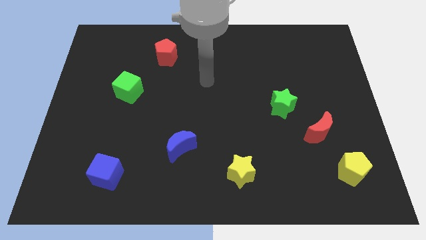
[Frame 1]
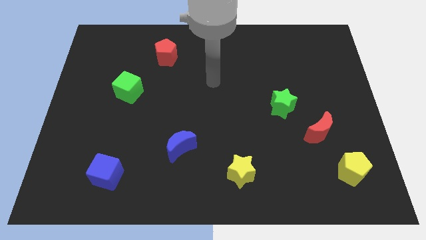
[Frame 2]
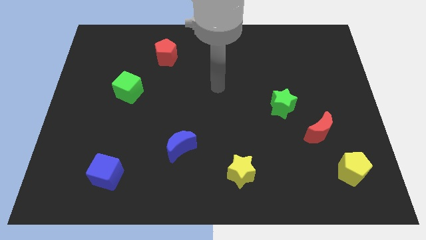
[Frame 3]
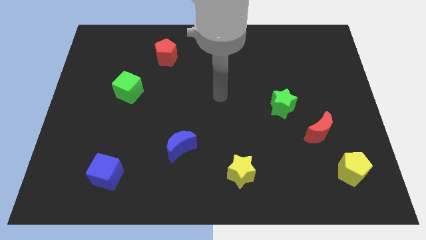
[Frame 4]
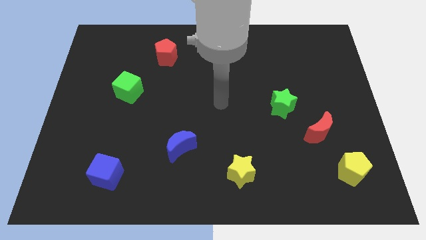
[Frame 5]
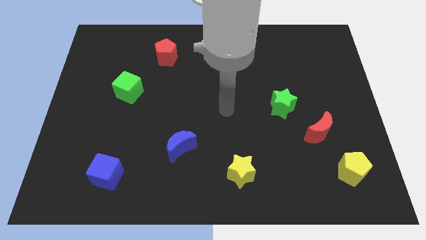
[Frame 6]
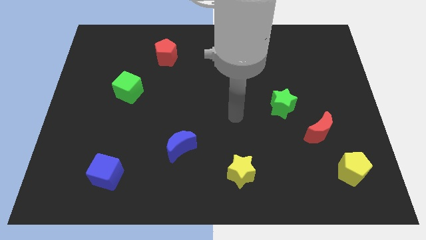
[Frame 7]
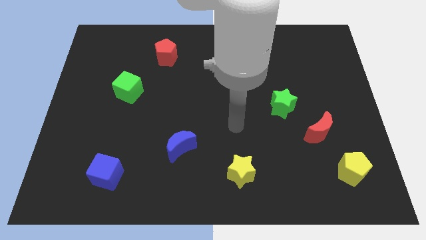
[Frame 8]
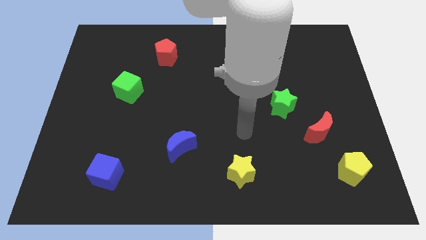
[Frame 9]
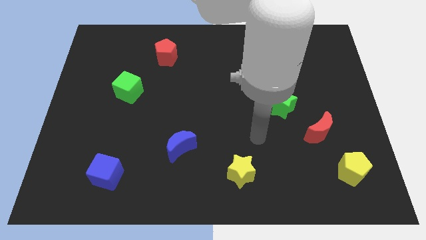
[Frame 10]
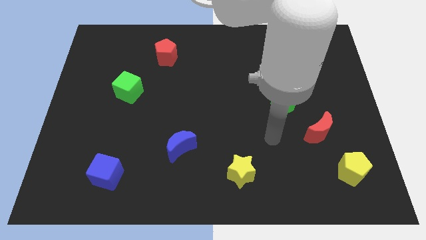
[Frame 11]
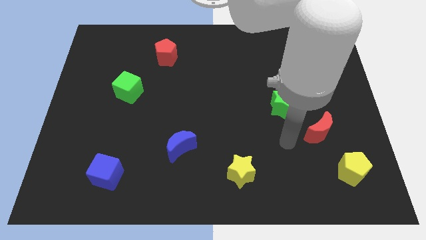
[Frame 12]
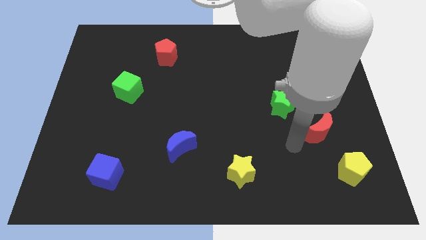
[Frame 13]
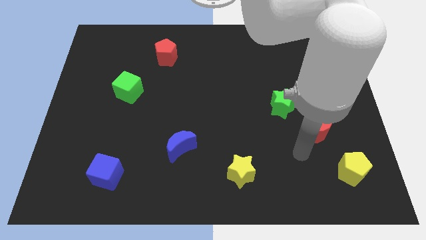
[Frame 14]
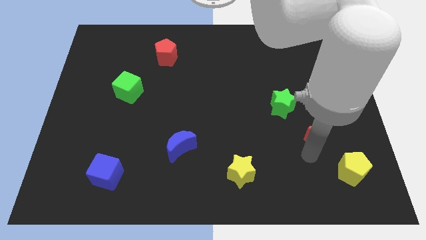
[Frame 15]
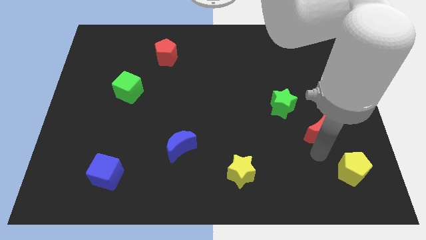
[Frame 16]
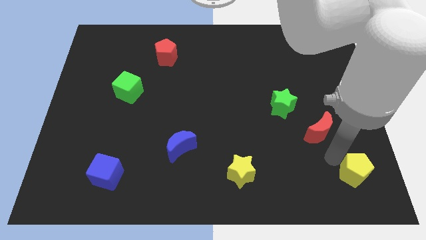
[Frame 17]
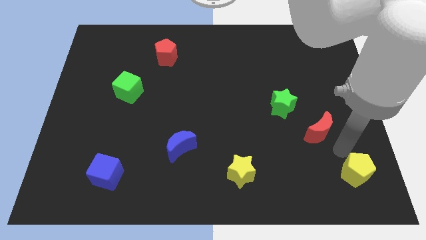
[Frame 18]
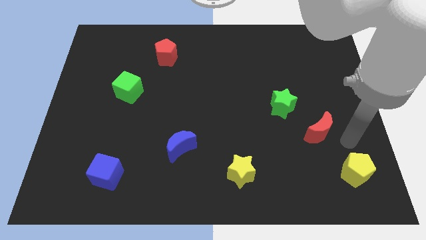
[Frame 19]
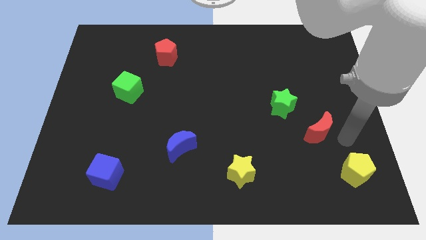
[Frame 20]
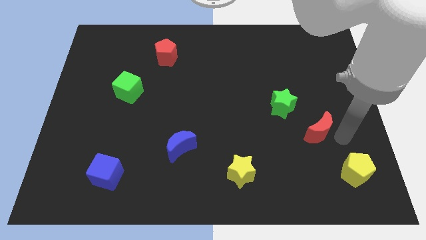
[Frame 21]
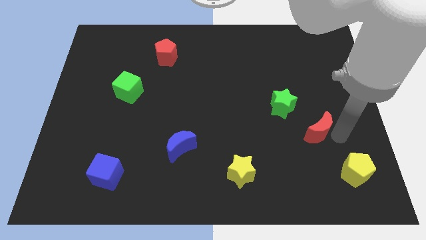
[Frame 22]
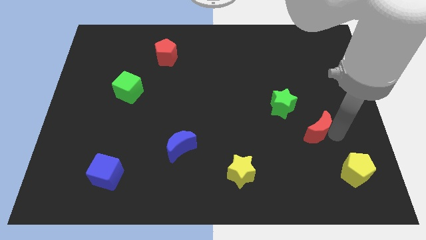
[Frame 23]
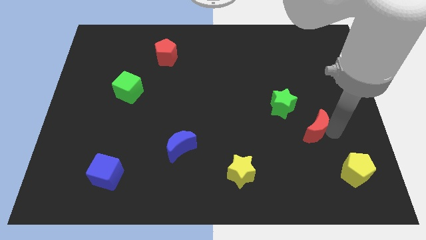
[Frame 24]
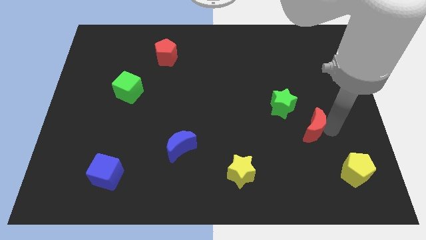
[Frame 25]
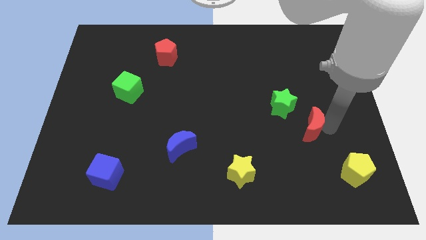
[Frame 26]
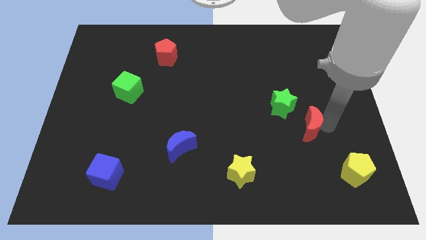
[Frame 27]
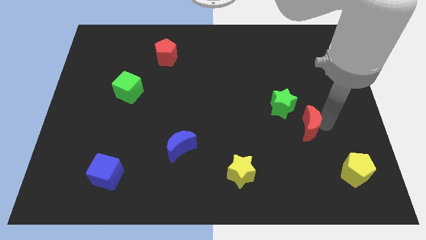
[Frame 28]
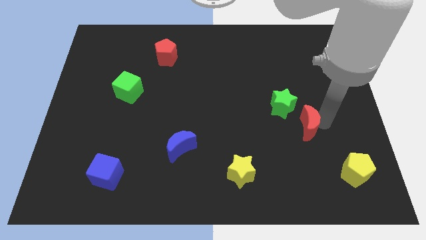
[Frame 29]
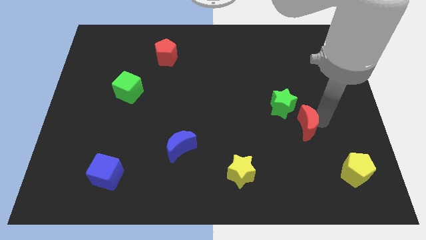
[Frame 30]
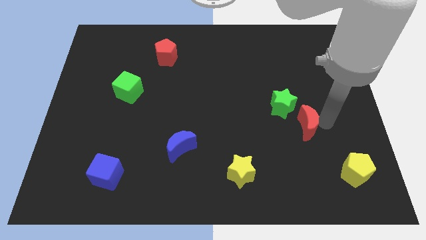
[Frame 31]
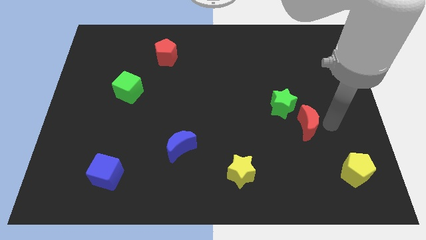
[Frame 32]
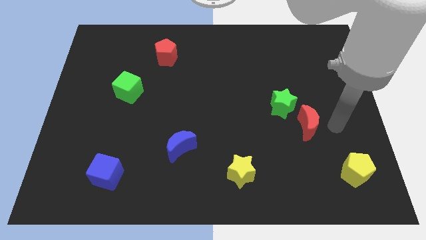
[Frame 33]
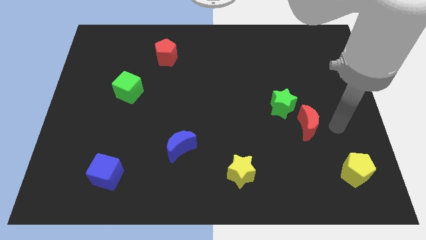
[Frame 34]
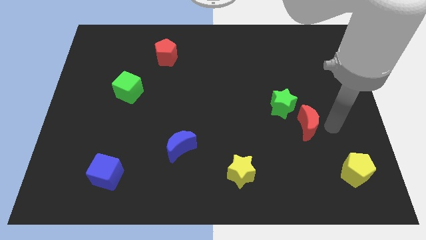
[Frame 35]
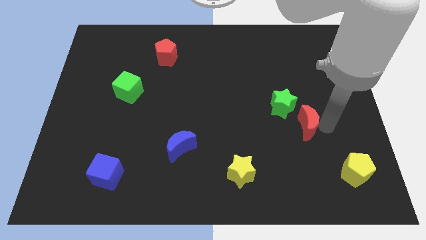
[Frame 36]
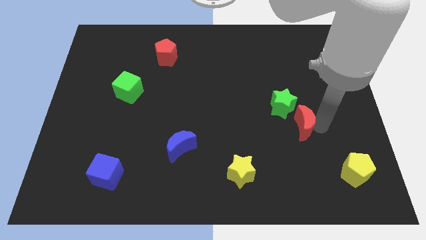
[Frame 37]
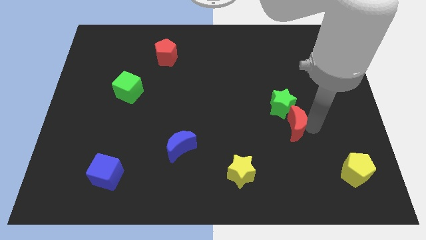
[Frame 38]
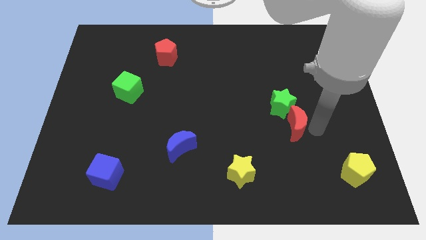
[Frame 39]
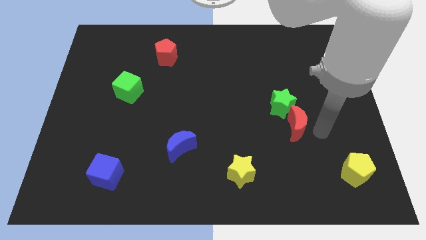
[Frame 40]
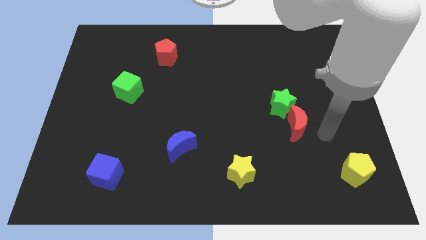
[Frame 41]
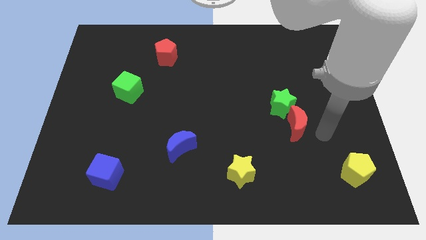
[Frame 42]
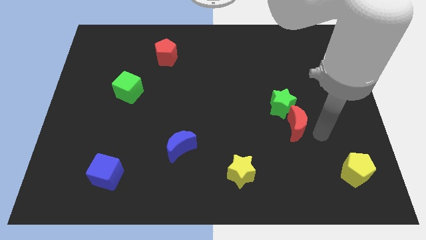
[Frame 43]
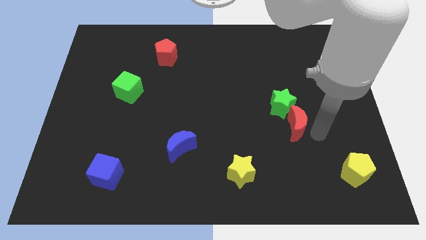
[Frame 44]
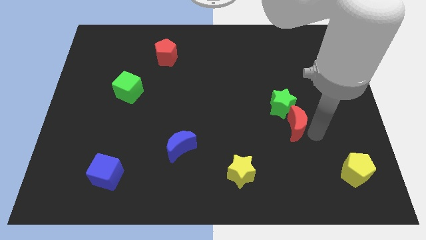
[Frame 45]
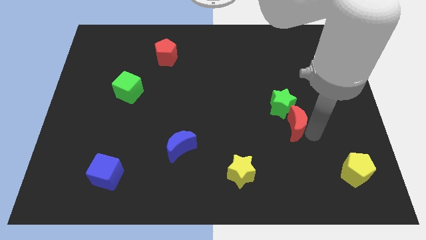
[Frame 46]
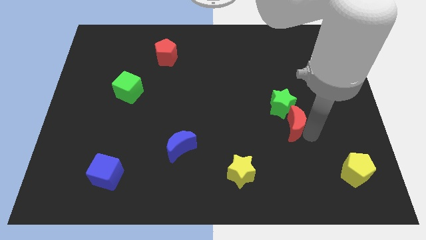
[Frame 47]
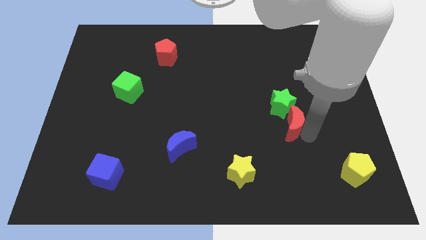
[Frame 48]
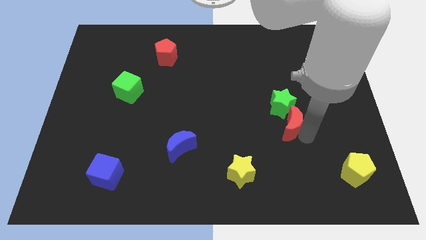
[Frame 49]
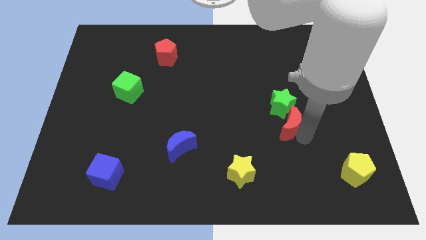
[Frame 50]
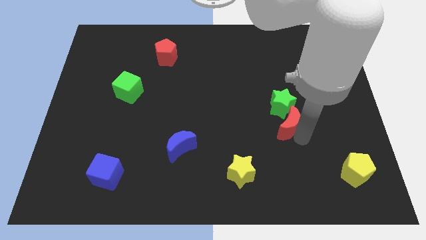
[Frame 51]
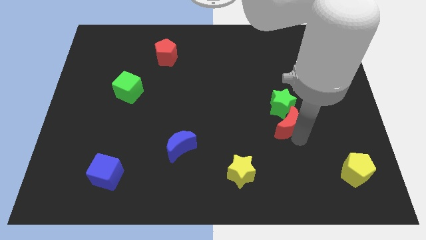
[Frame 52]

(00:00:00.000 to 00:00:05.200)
slide the red moon diagonally down and to the left of the green star

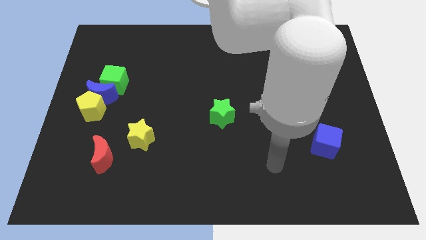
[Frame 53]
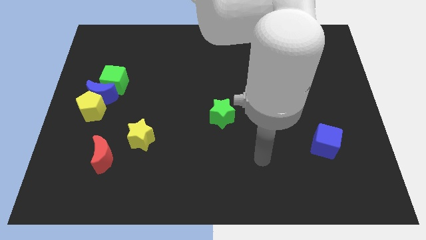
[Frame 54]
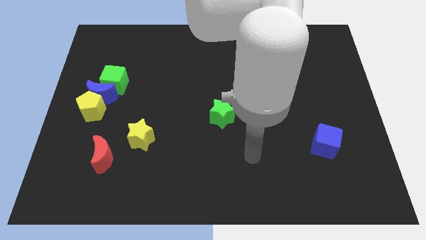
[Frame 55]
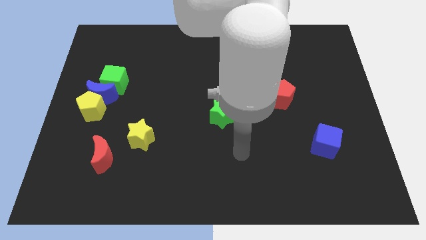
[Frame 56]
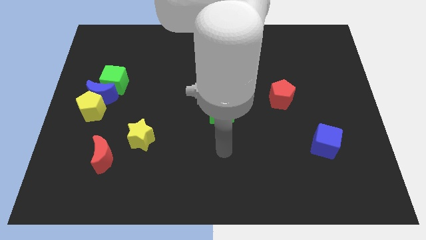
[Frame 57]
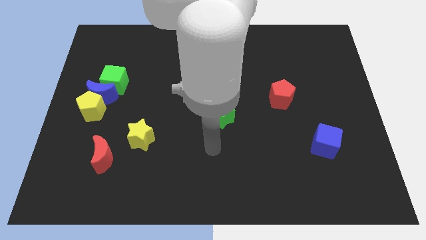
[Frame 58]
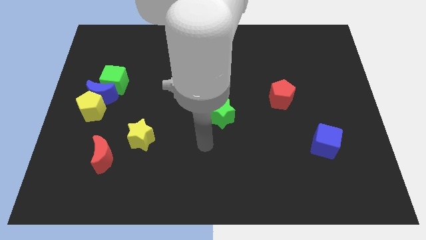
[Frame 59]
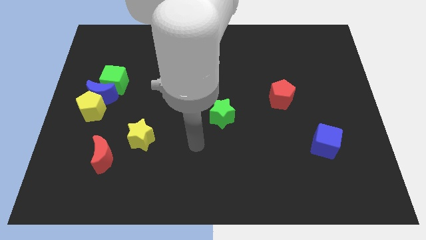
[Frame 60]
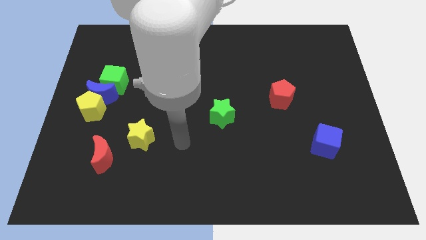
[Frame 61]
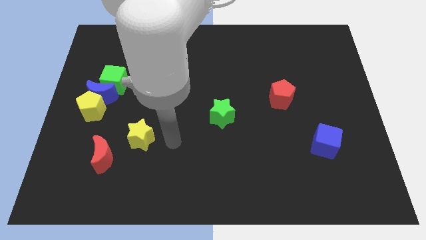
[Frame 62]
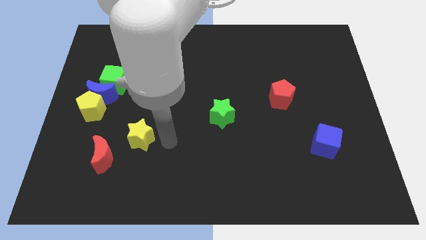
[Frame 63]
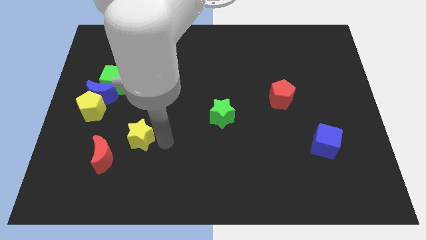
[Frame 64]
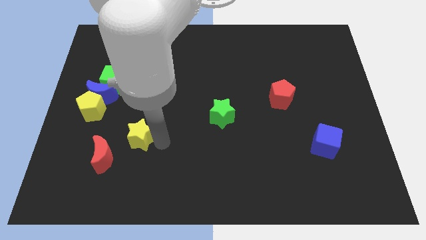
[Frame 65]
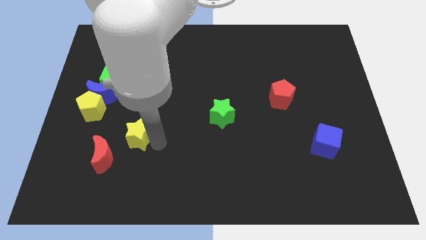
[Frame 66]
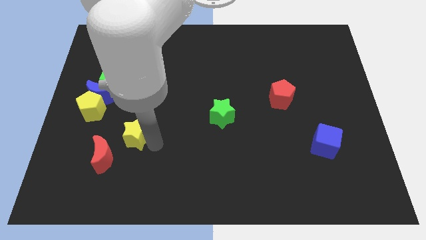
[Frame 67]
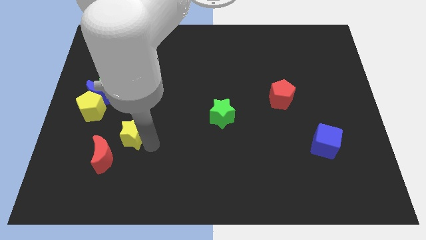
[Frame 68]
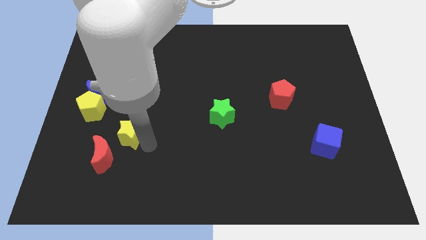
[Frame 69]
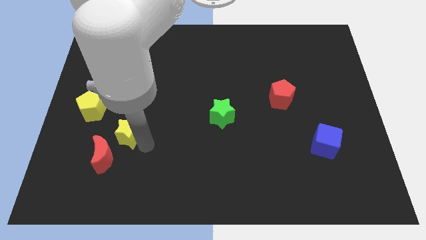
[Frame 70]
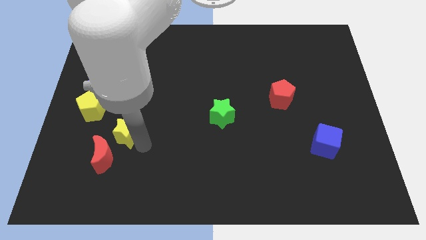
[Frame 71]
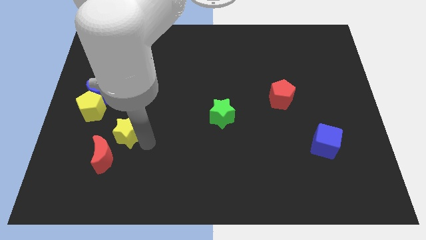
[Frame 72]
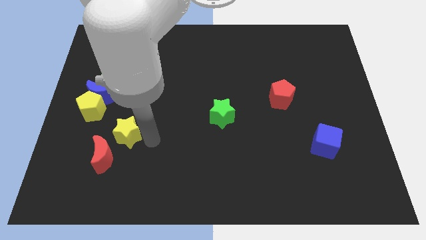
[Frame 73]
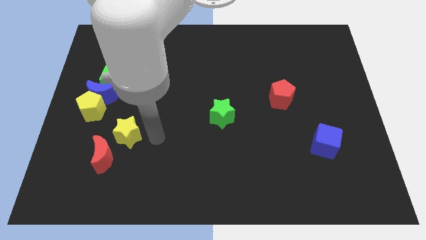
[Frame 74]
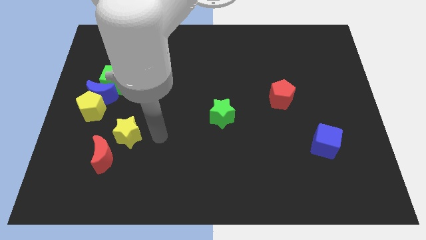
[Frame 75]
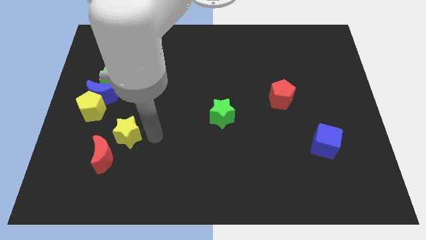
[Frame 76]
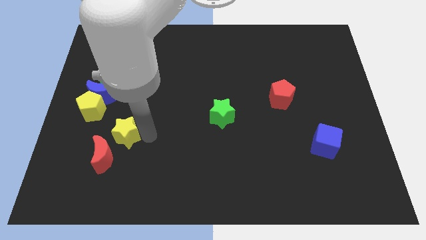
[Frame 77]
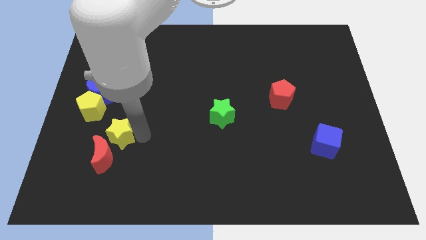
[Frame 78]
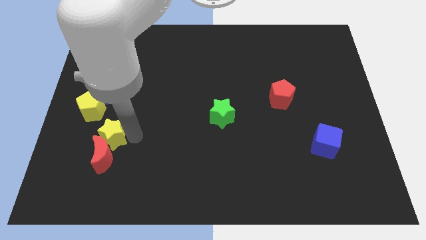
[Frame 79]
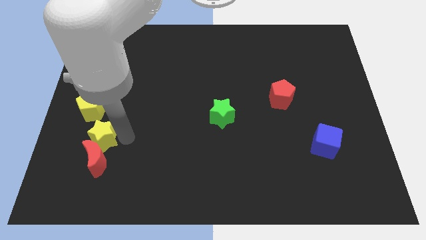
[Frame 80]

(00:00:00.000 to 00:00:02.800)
slide the yellow star to the bottom side of the blue moon
